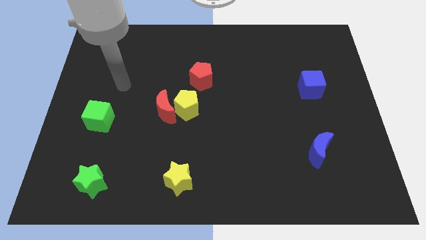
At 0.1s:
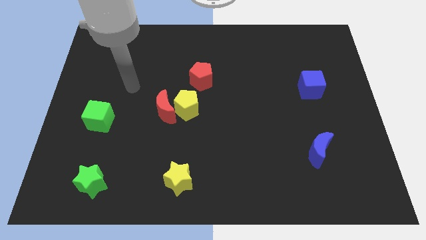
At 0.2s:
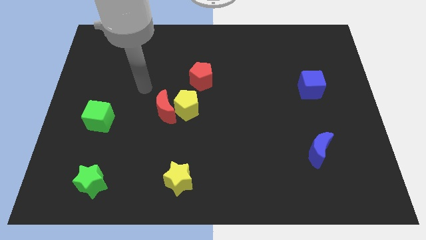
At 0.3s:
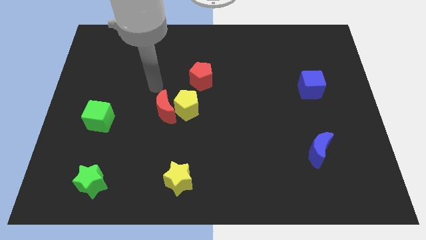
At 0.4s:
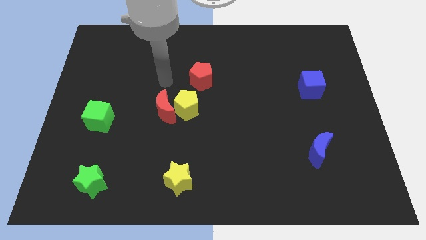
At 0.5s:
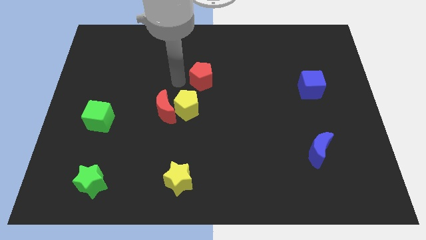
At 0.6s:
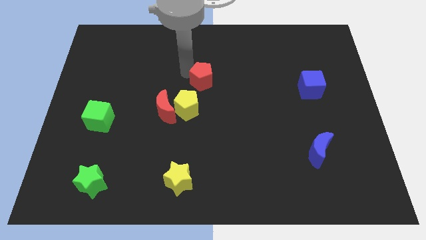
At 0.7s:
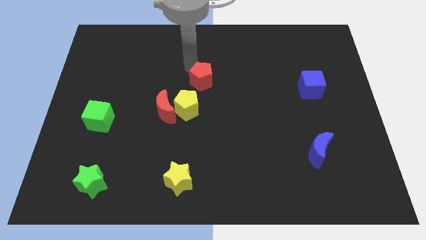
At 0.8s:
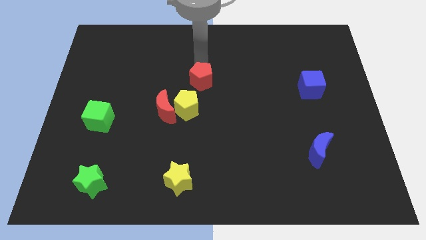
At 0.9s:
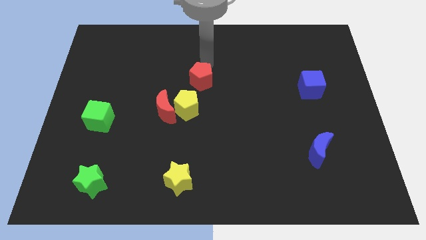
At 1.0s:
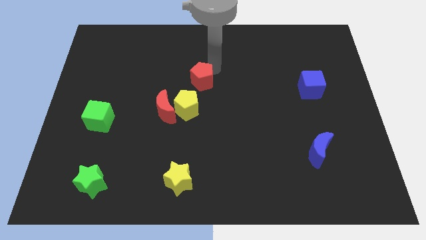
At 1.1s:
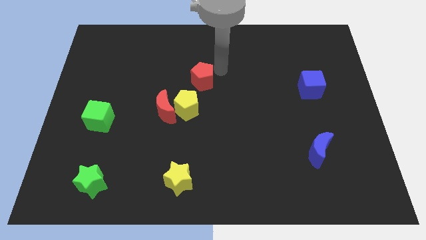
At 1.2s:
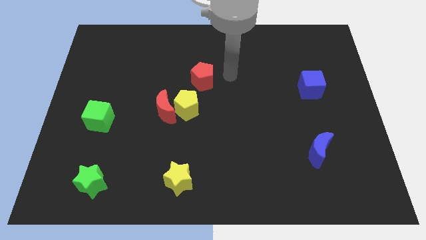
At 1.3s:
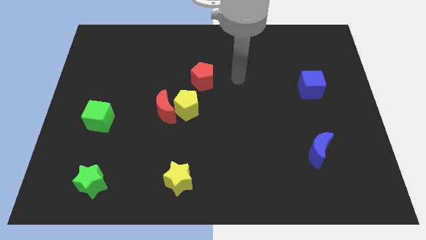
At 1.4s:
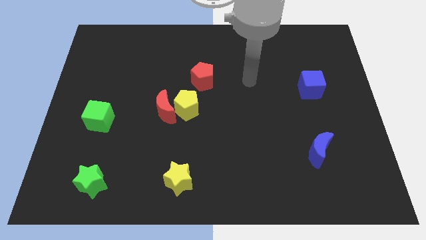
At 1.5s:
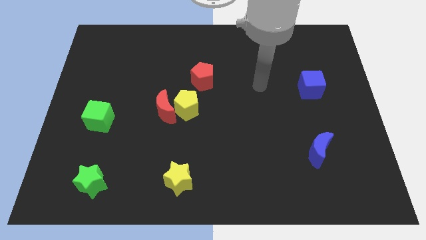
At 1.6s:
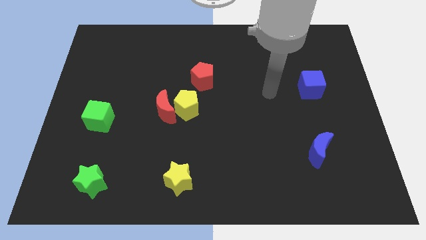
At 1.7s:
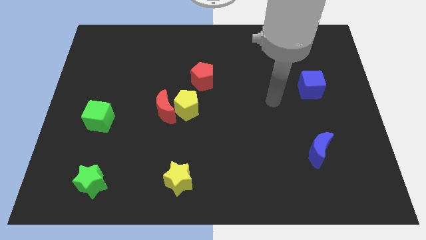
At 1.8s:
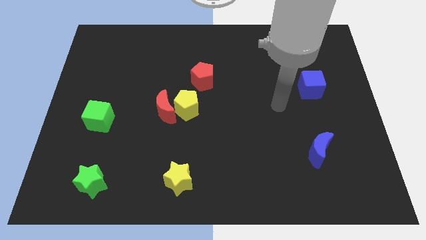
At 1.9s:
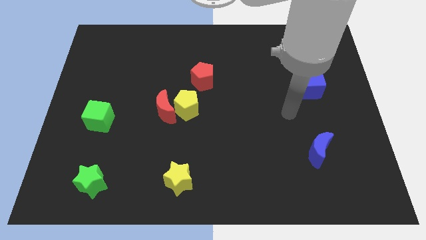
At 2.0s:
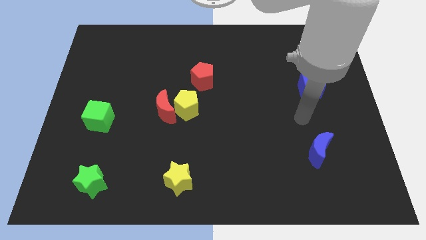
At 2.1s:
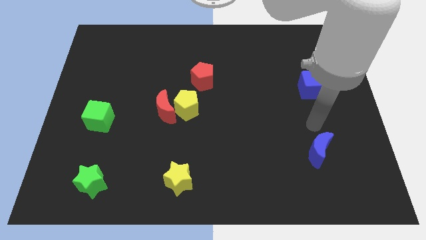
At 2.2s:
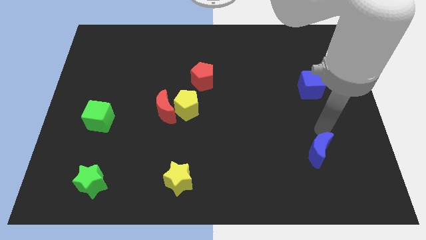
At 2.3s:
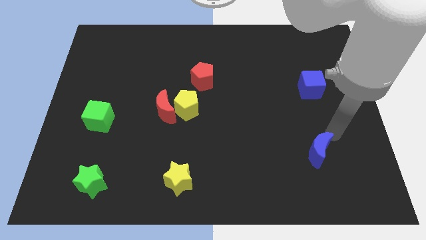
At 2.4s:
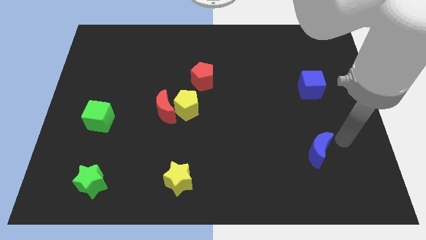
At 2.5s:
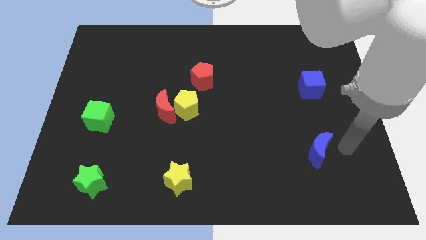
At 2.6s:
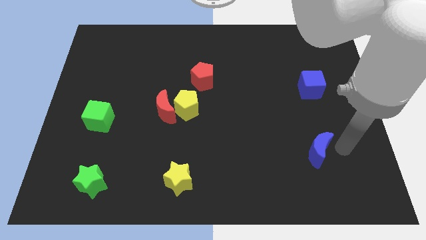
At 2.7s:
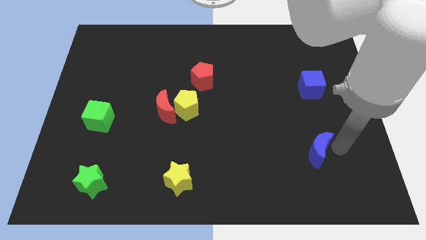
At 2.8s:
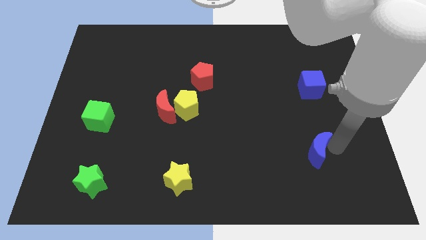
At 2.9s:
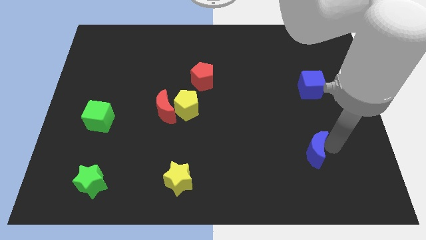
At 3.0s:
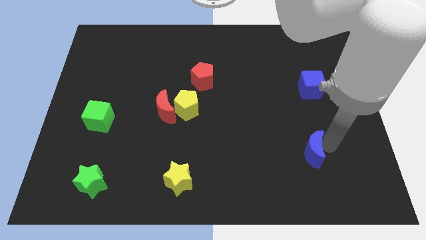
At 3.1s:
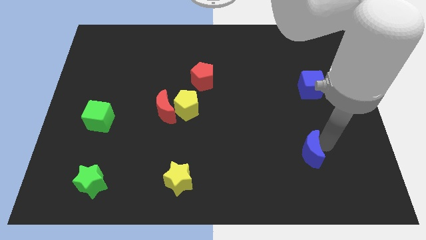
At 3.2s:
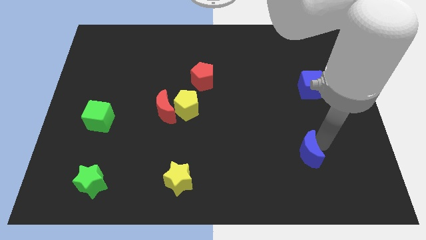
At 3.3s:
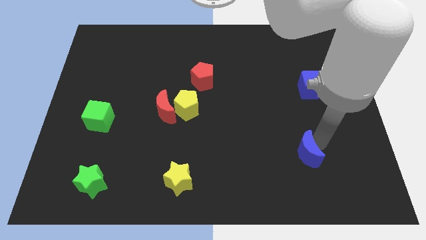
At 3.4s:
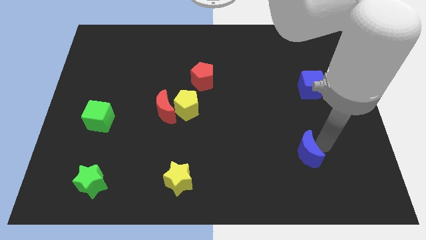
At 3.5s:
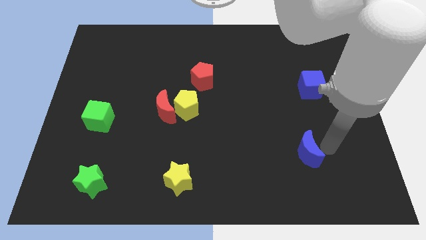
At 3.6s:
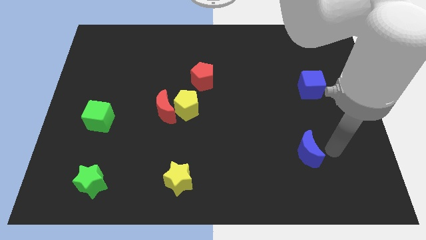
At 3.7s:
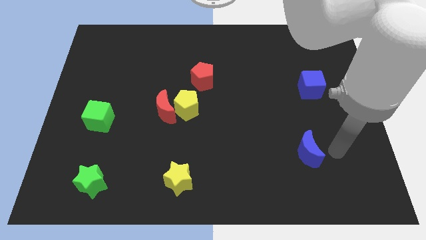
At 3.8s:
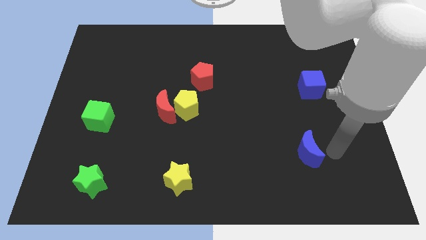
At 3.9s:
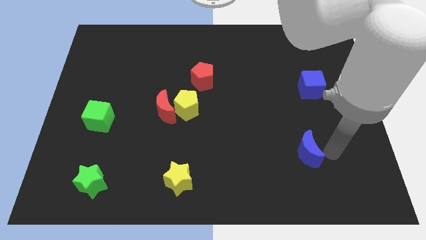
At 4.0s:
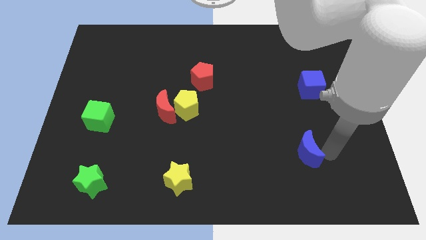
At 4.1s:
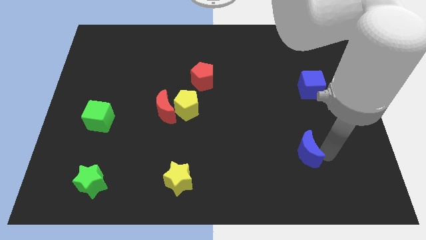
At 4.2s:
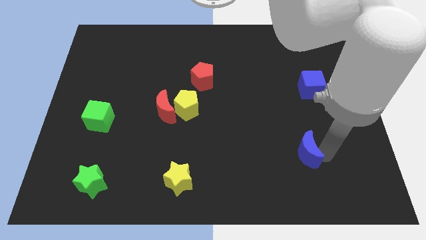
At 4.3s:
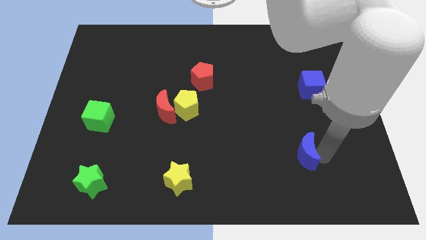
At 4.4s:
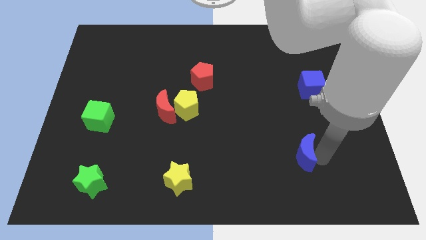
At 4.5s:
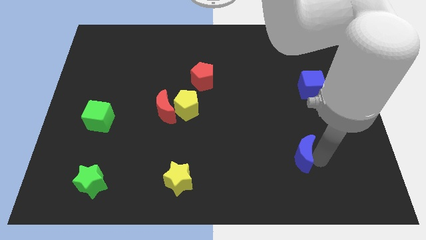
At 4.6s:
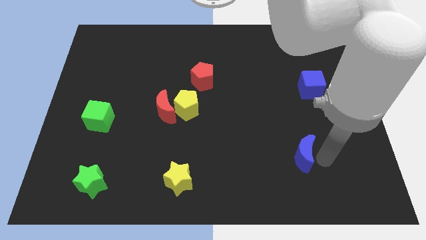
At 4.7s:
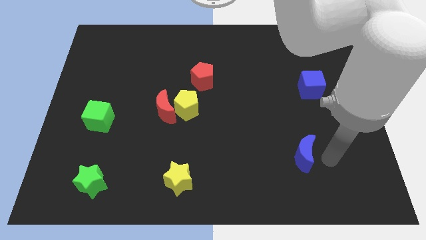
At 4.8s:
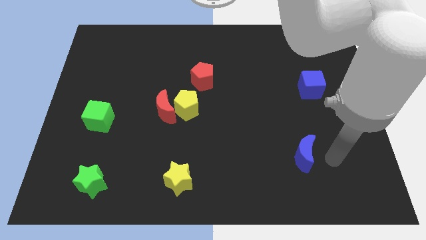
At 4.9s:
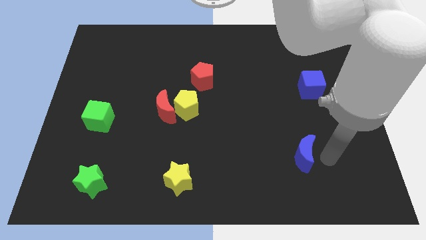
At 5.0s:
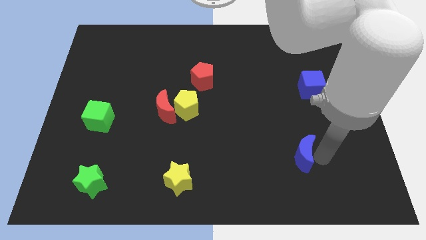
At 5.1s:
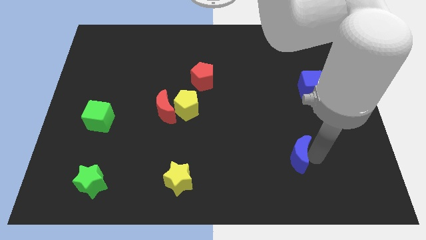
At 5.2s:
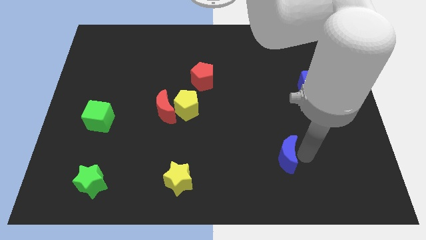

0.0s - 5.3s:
slightly push the blue moon left

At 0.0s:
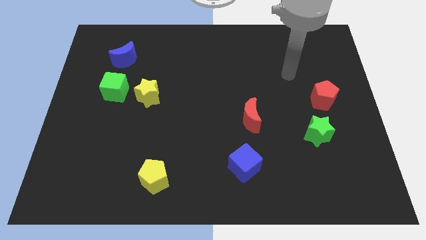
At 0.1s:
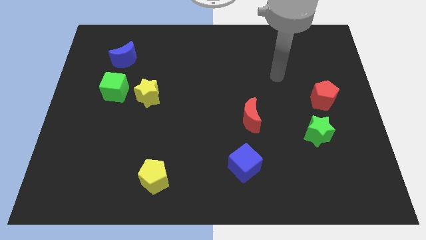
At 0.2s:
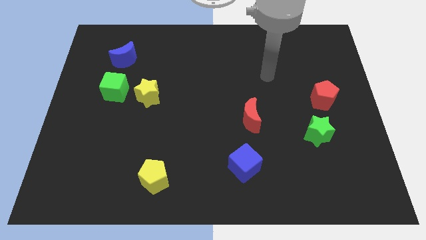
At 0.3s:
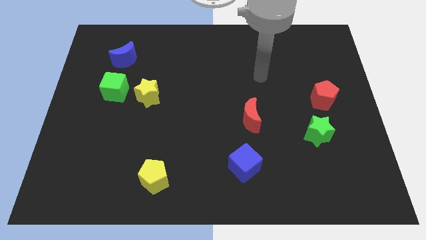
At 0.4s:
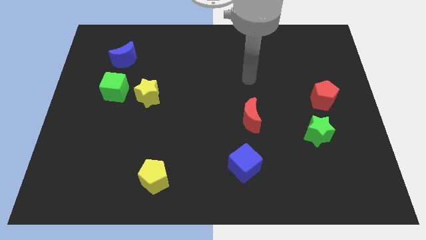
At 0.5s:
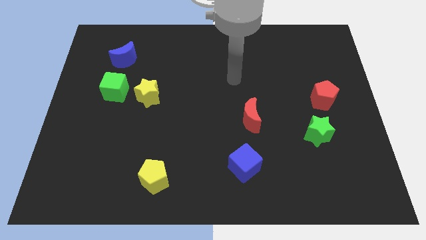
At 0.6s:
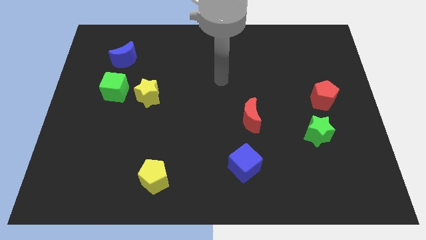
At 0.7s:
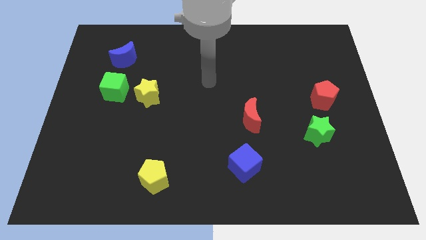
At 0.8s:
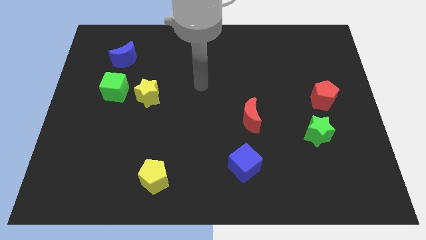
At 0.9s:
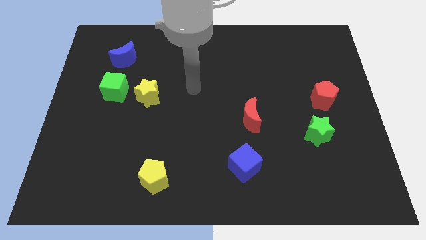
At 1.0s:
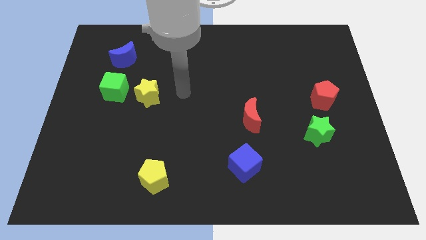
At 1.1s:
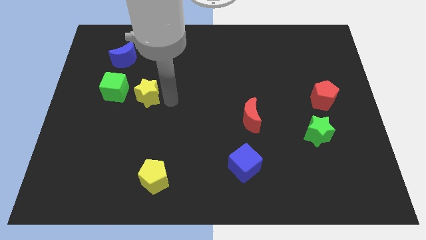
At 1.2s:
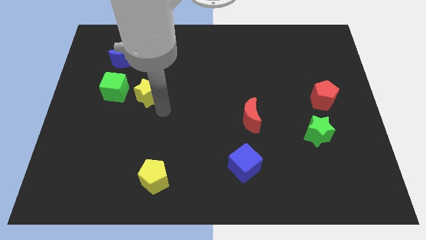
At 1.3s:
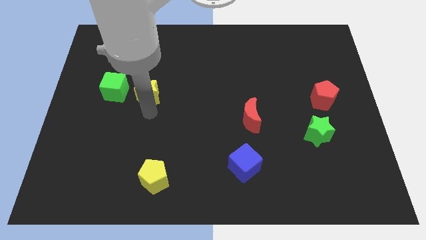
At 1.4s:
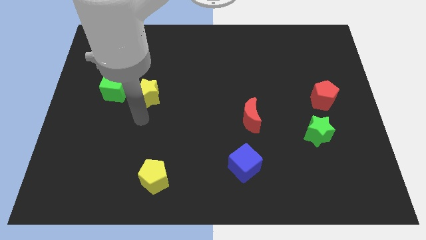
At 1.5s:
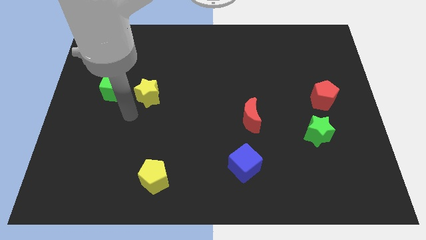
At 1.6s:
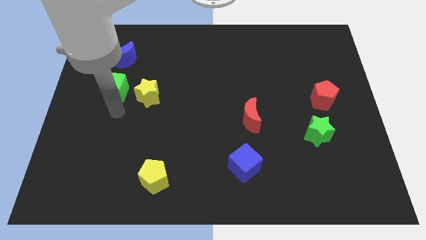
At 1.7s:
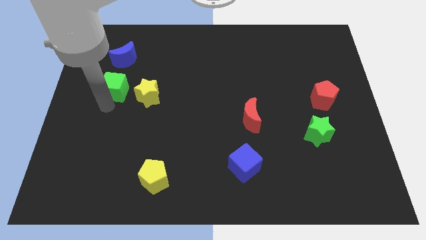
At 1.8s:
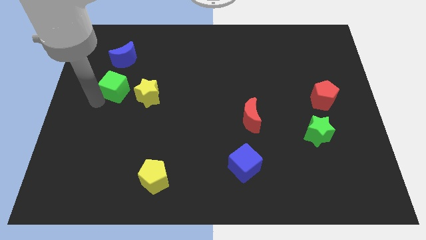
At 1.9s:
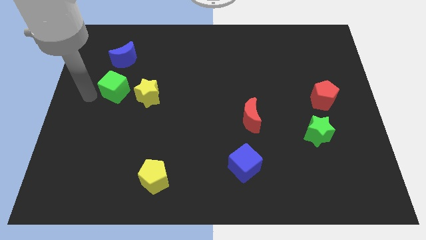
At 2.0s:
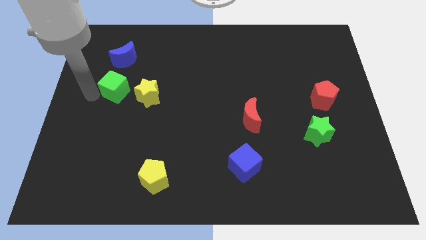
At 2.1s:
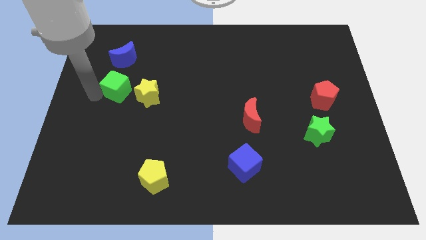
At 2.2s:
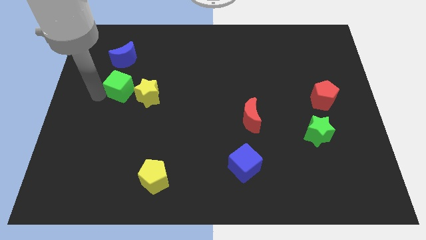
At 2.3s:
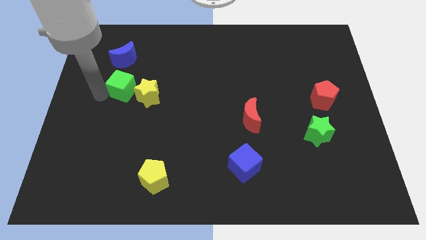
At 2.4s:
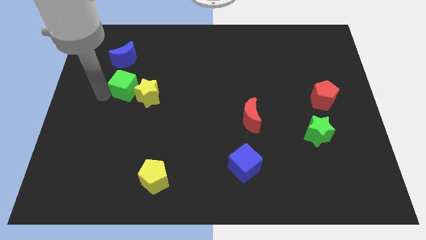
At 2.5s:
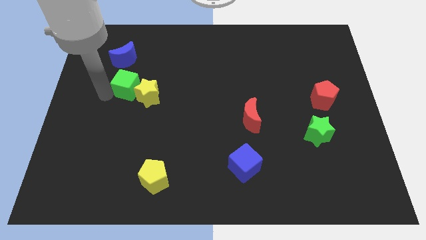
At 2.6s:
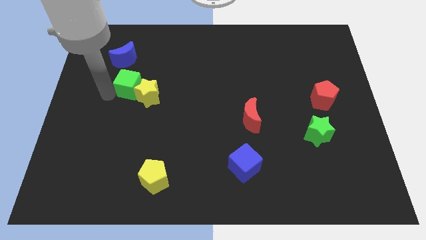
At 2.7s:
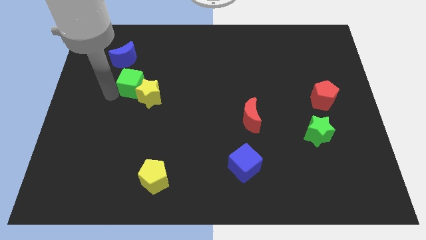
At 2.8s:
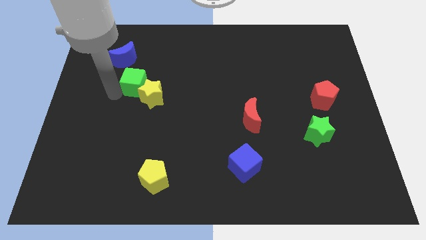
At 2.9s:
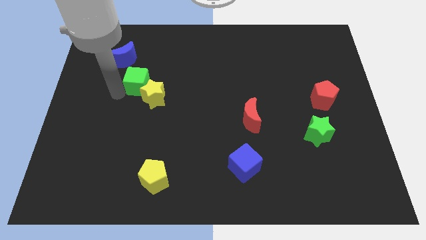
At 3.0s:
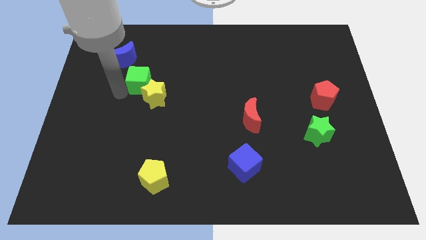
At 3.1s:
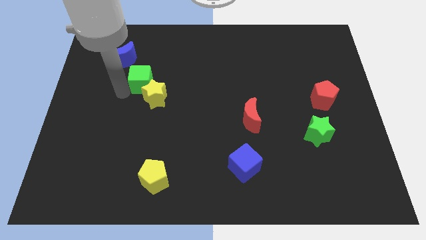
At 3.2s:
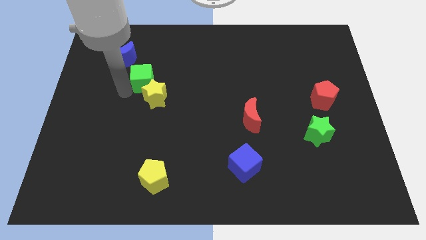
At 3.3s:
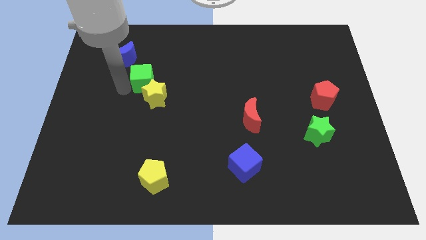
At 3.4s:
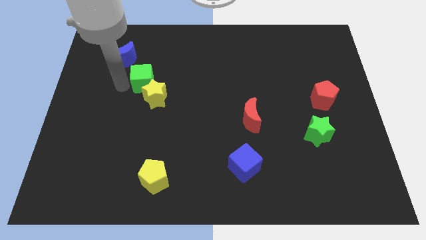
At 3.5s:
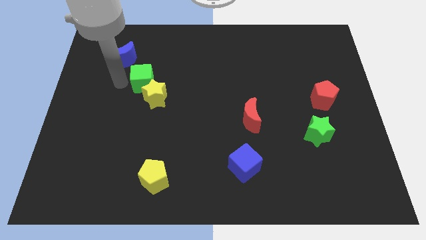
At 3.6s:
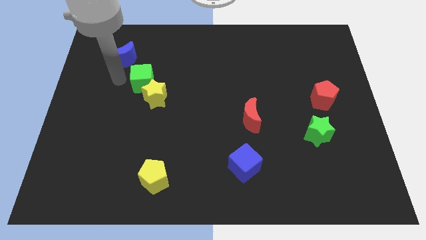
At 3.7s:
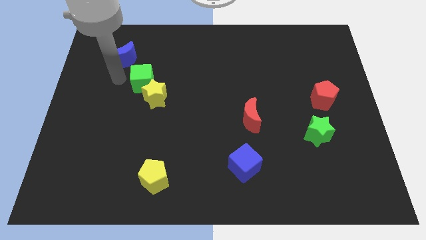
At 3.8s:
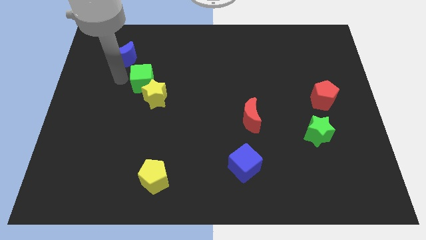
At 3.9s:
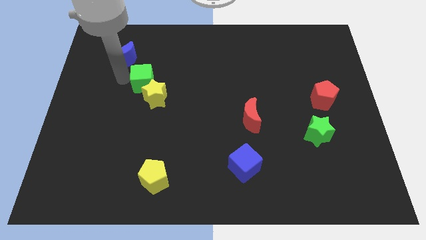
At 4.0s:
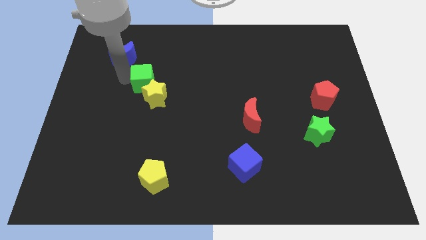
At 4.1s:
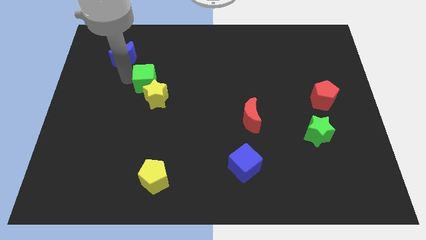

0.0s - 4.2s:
slightly slide the green cube right
